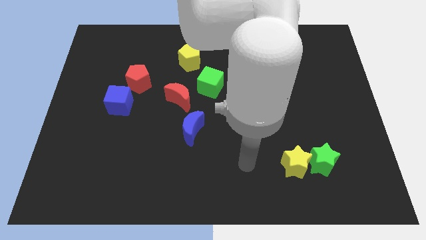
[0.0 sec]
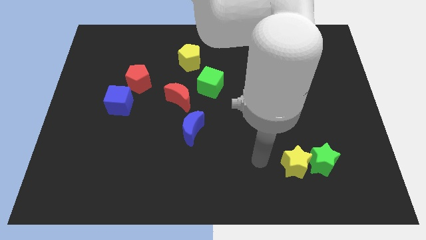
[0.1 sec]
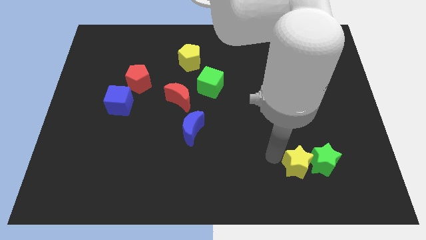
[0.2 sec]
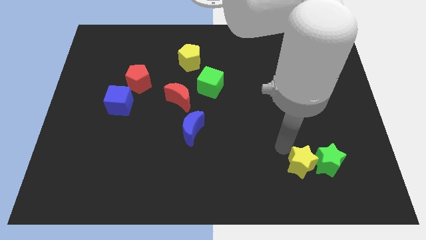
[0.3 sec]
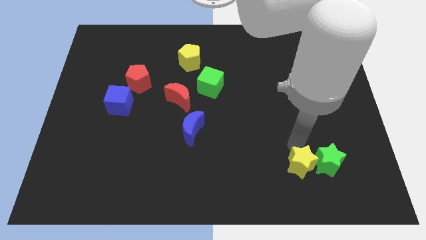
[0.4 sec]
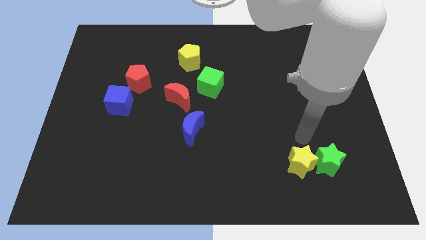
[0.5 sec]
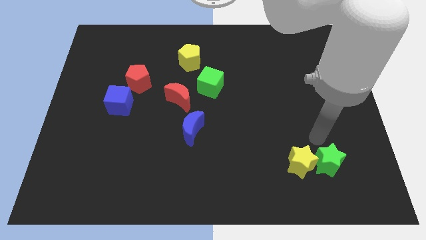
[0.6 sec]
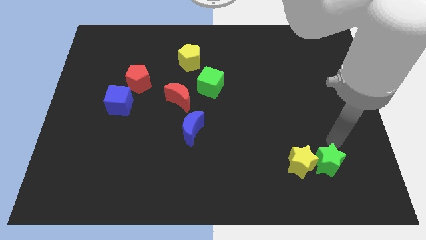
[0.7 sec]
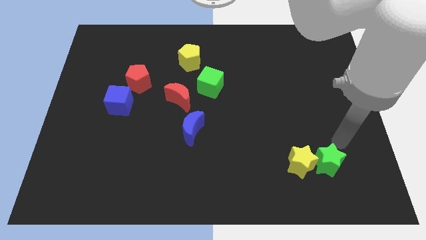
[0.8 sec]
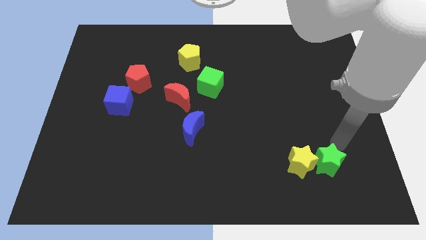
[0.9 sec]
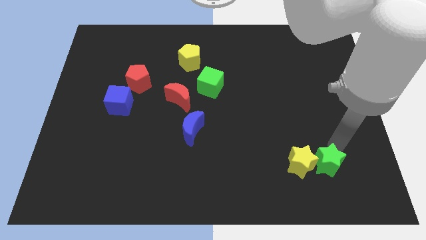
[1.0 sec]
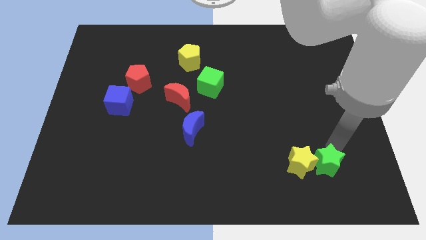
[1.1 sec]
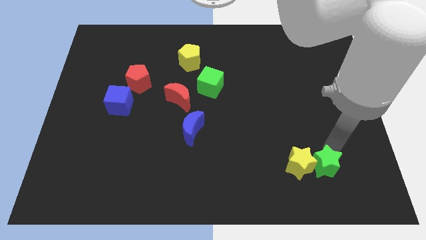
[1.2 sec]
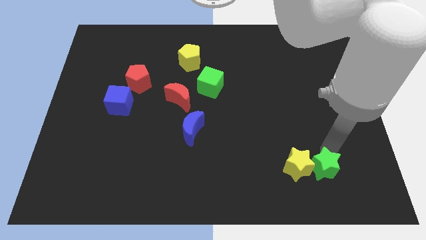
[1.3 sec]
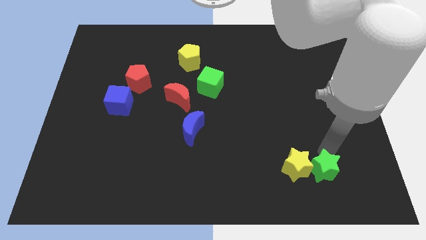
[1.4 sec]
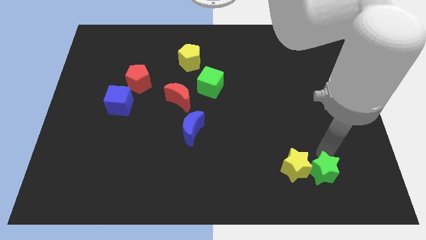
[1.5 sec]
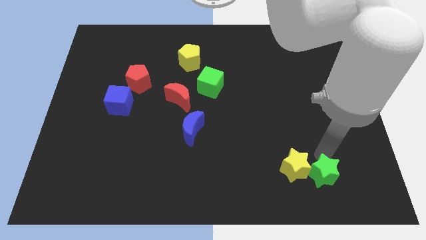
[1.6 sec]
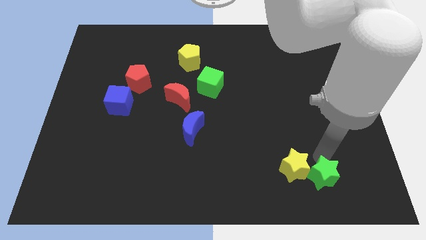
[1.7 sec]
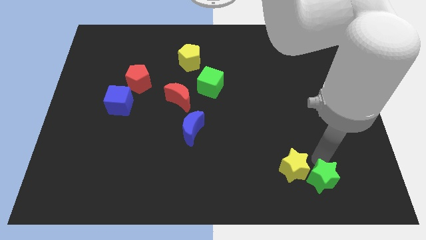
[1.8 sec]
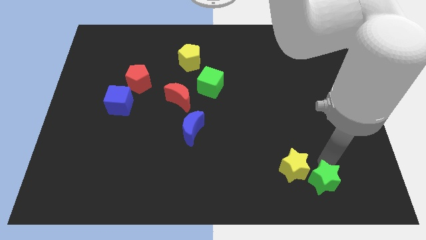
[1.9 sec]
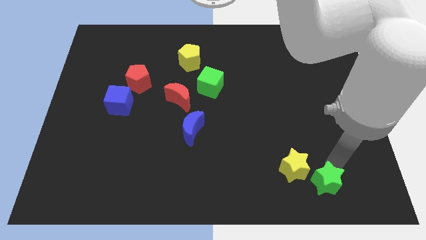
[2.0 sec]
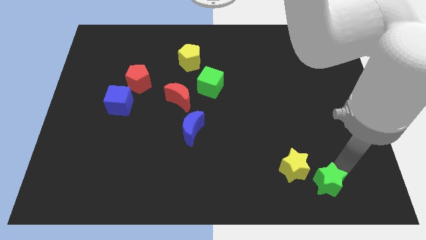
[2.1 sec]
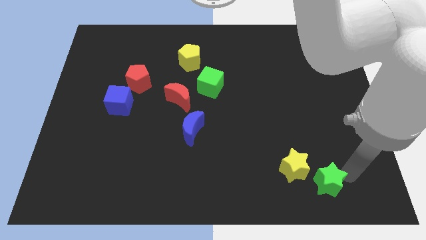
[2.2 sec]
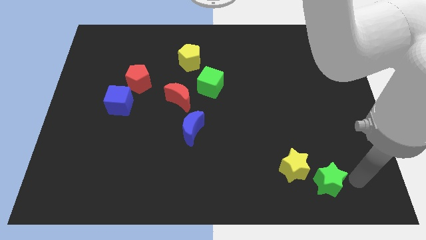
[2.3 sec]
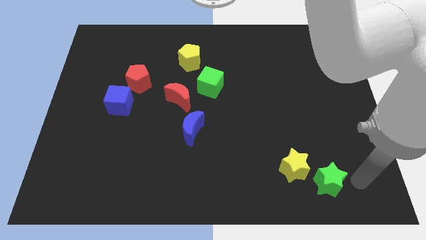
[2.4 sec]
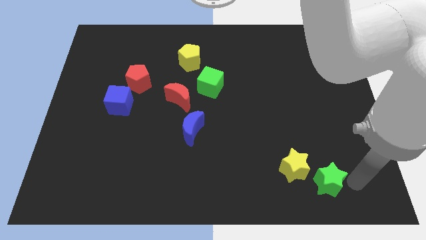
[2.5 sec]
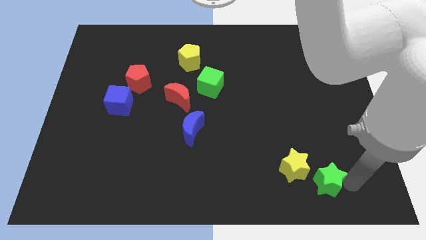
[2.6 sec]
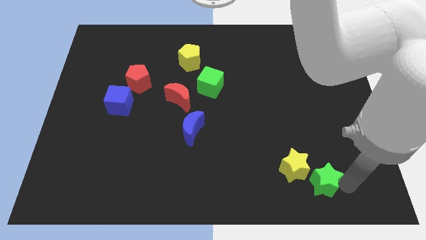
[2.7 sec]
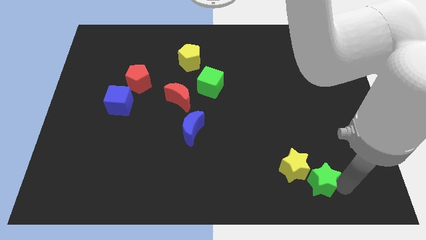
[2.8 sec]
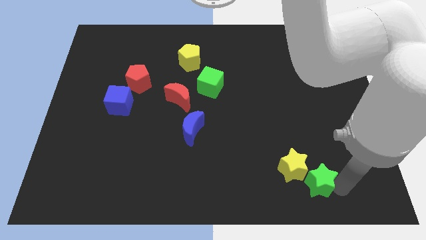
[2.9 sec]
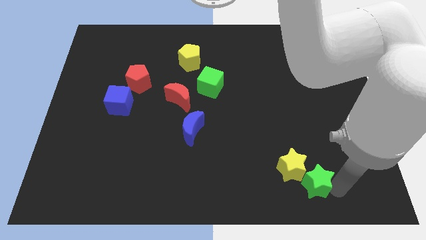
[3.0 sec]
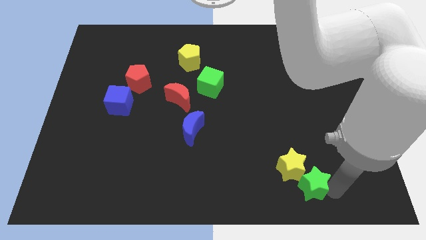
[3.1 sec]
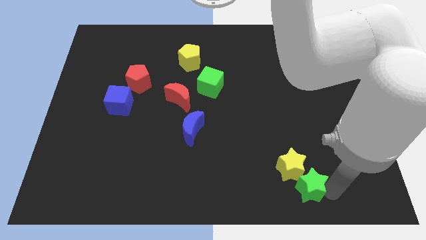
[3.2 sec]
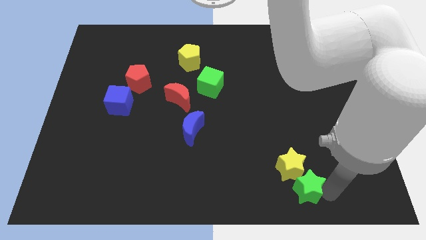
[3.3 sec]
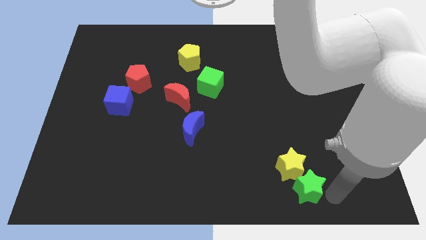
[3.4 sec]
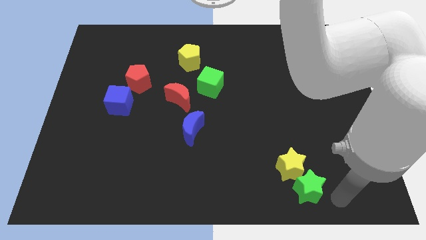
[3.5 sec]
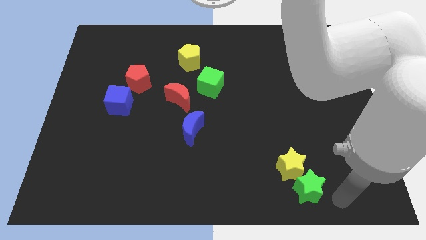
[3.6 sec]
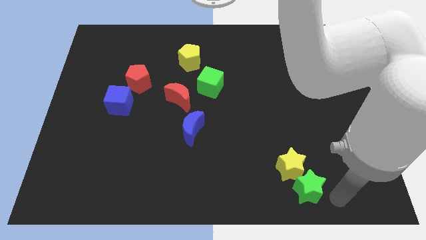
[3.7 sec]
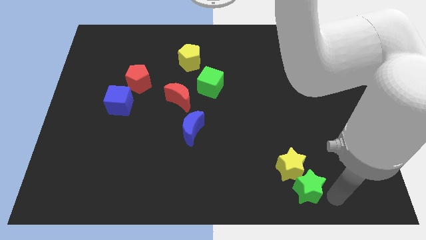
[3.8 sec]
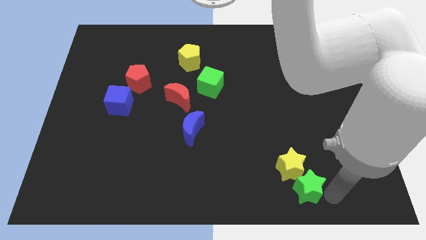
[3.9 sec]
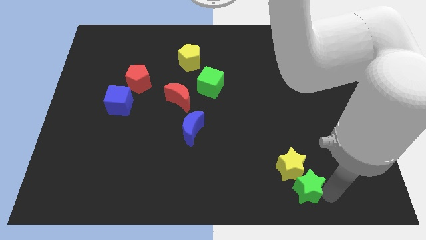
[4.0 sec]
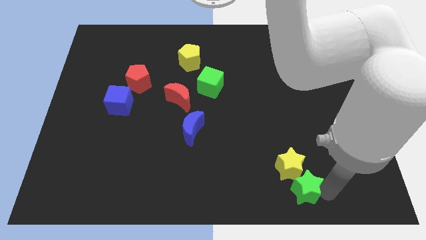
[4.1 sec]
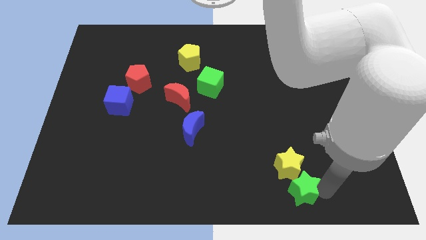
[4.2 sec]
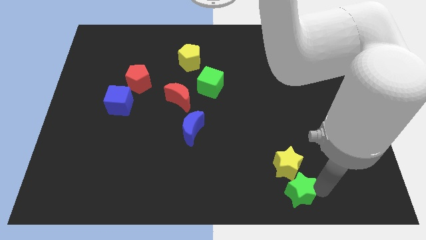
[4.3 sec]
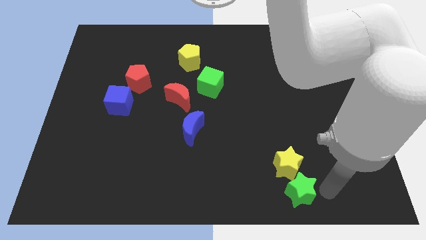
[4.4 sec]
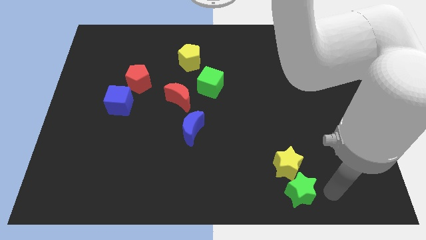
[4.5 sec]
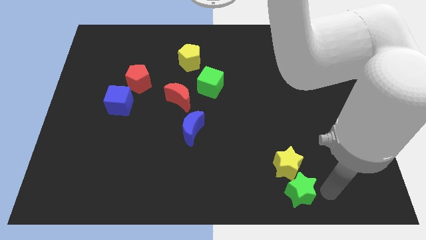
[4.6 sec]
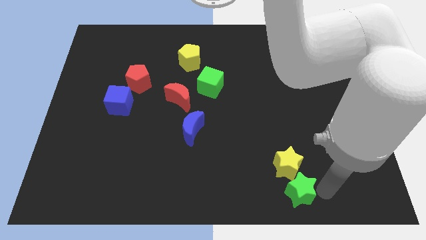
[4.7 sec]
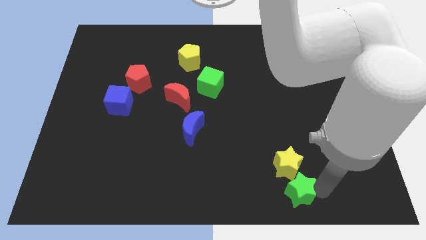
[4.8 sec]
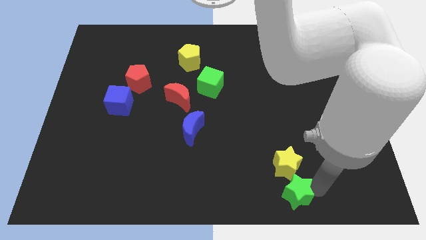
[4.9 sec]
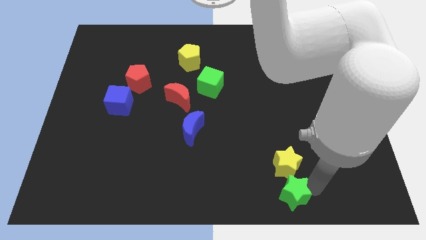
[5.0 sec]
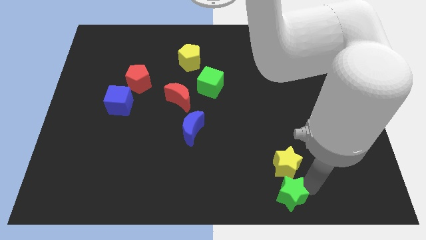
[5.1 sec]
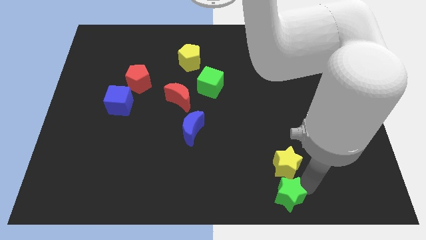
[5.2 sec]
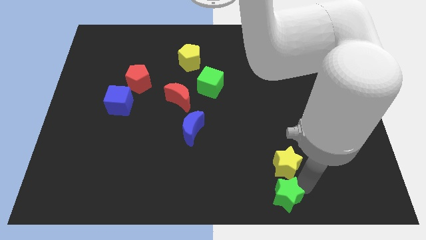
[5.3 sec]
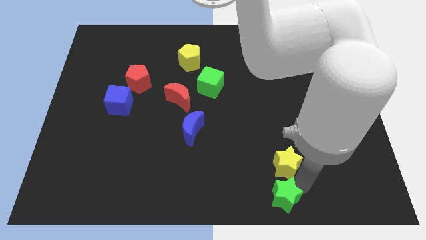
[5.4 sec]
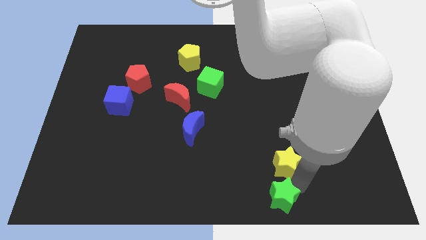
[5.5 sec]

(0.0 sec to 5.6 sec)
move the green star to the bottom

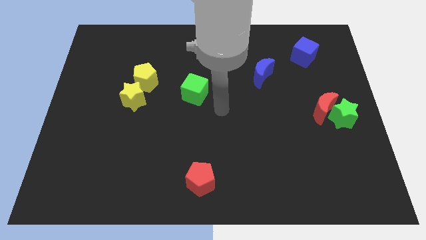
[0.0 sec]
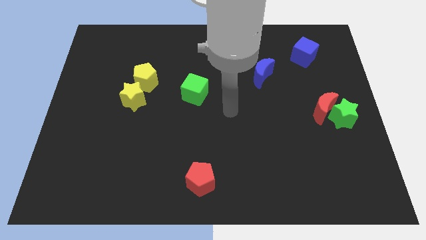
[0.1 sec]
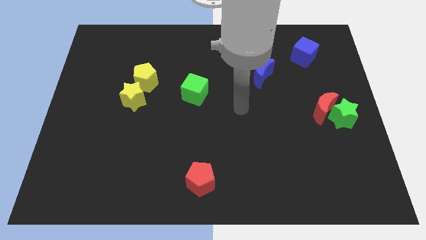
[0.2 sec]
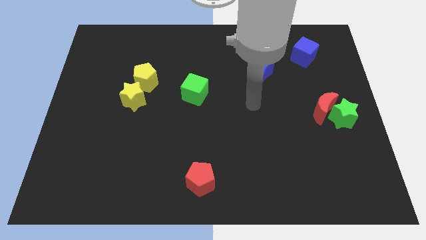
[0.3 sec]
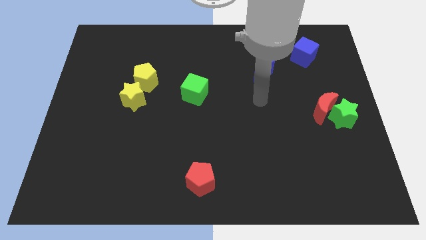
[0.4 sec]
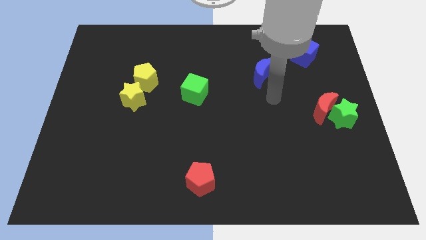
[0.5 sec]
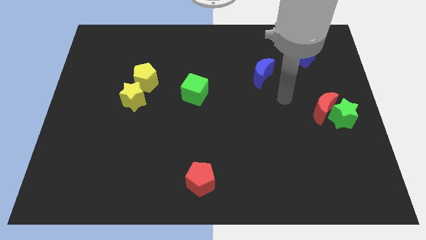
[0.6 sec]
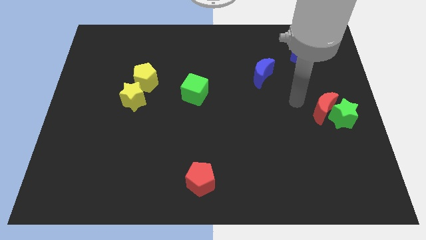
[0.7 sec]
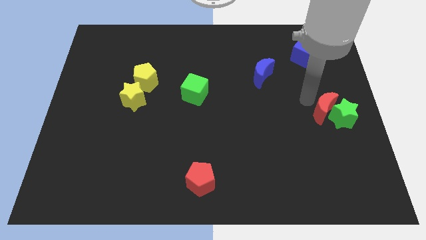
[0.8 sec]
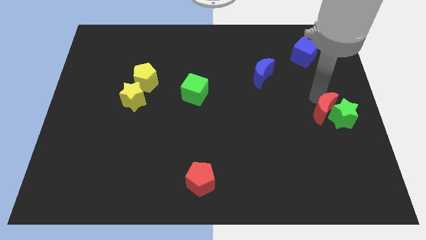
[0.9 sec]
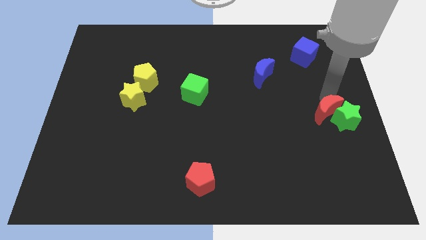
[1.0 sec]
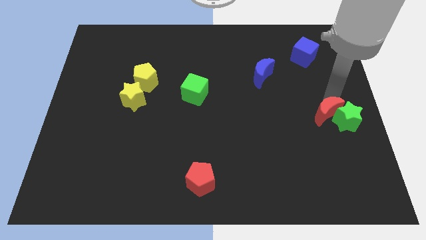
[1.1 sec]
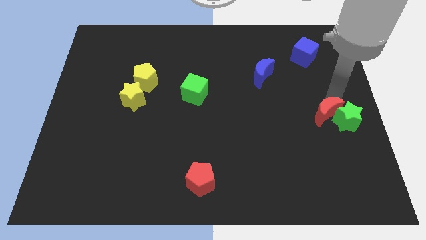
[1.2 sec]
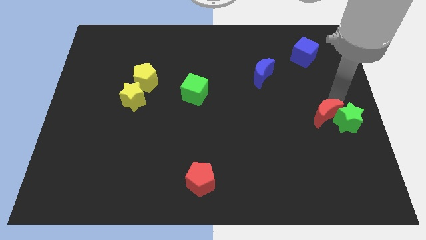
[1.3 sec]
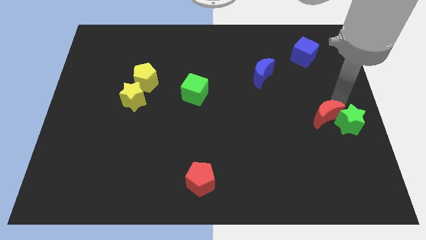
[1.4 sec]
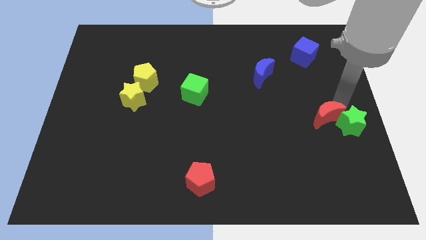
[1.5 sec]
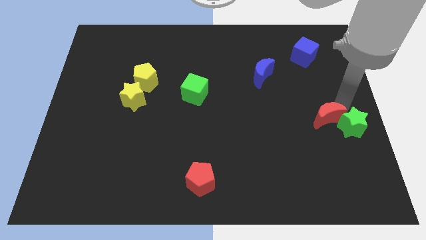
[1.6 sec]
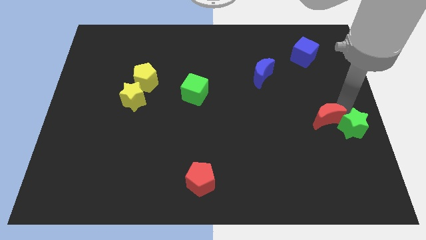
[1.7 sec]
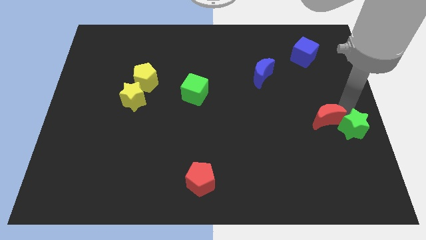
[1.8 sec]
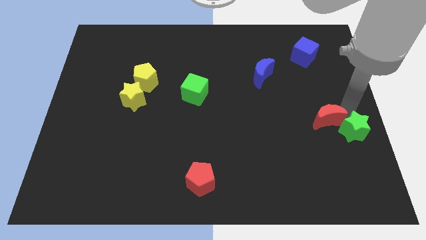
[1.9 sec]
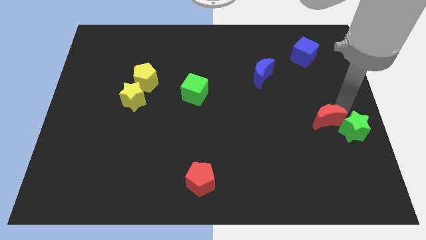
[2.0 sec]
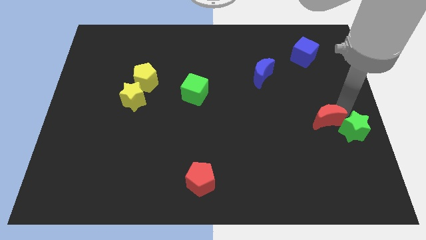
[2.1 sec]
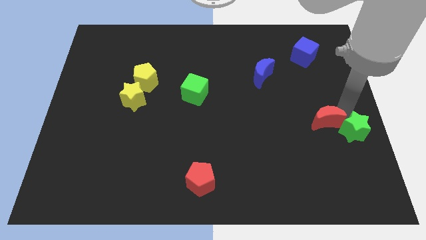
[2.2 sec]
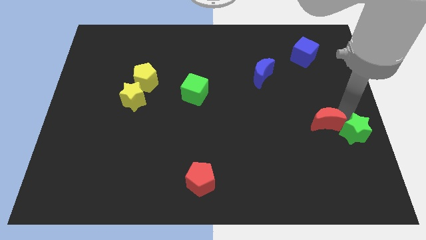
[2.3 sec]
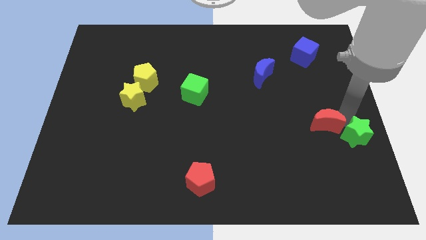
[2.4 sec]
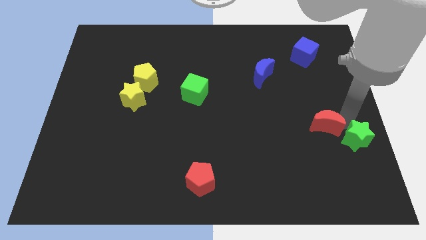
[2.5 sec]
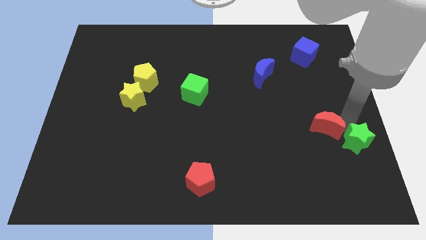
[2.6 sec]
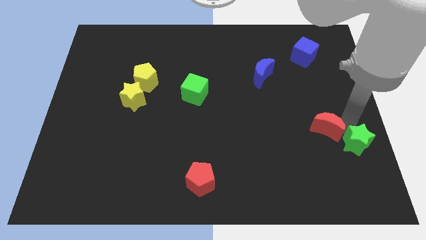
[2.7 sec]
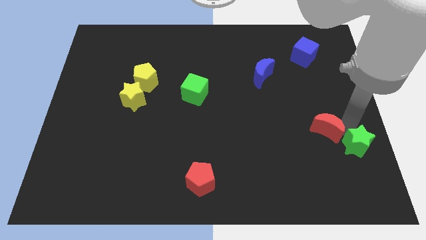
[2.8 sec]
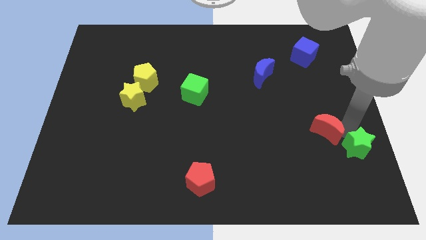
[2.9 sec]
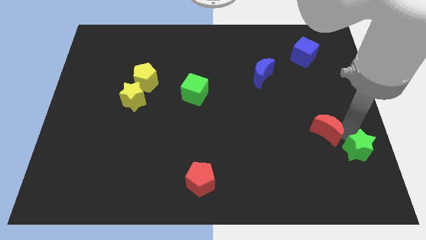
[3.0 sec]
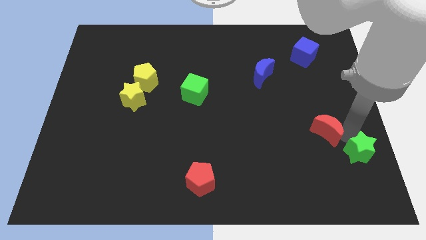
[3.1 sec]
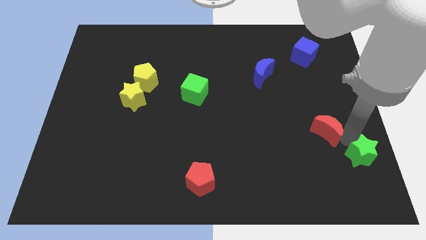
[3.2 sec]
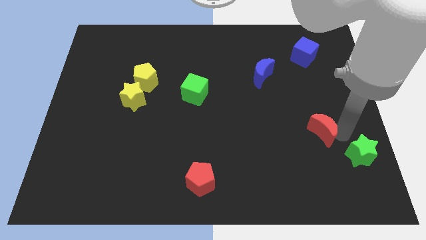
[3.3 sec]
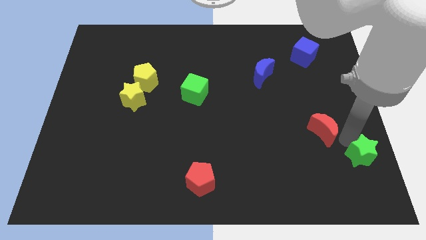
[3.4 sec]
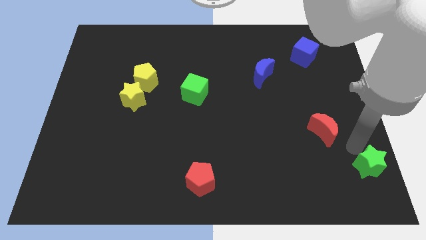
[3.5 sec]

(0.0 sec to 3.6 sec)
push the green star to the bottom right
